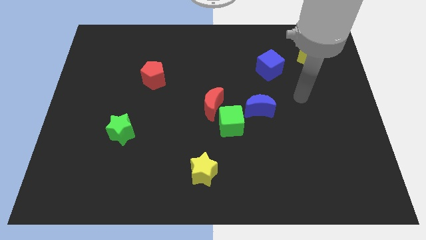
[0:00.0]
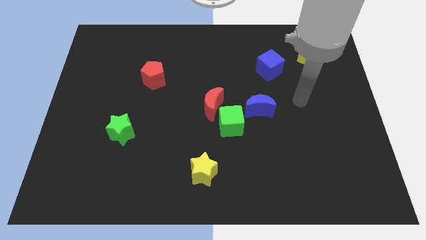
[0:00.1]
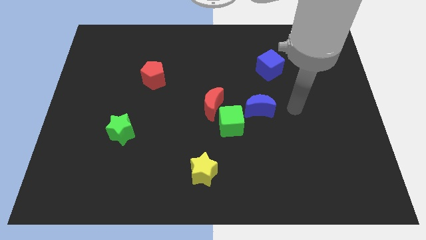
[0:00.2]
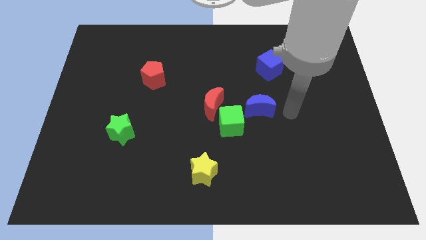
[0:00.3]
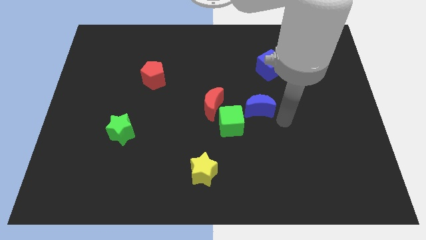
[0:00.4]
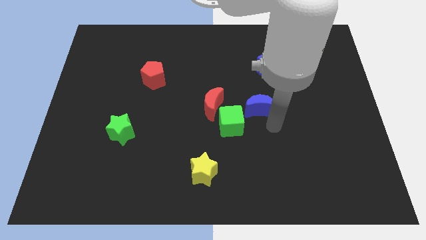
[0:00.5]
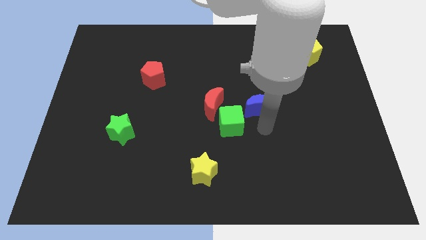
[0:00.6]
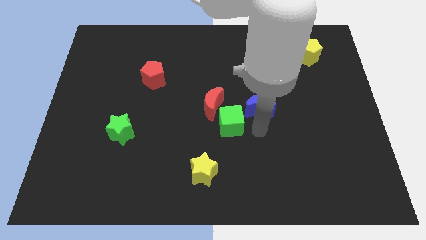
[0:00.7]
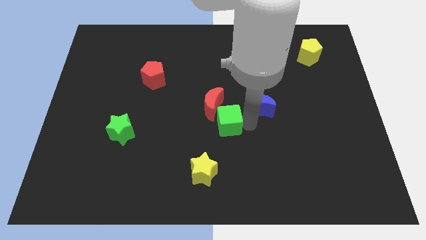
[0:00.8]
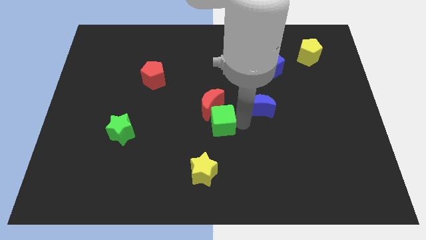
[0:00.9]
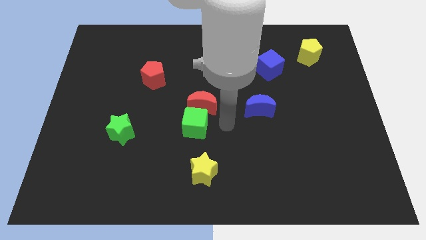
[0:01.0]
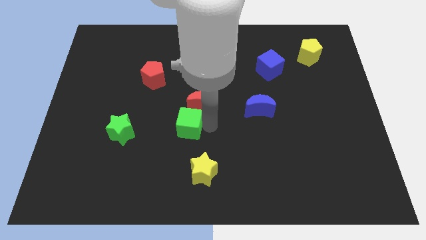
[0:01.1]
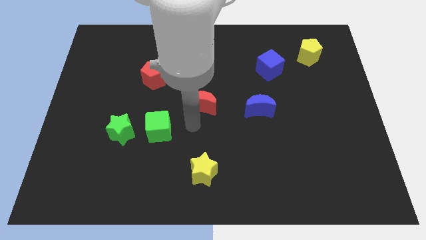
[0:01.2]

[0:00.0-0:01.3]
move the red moon away from the green cube

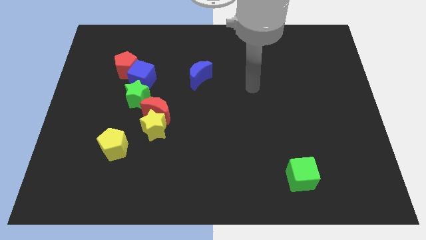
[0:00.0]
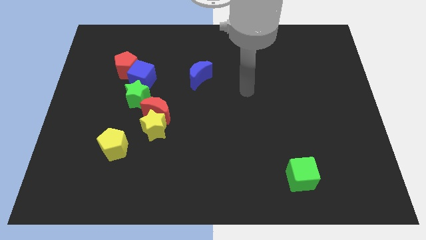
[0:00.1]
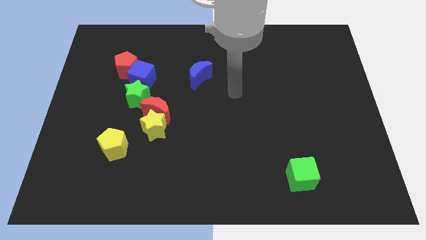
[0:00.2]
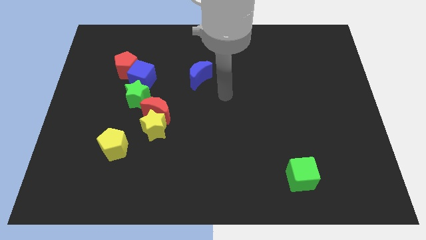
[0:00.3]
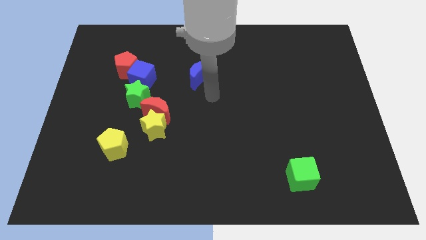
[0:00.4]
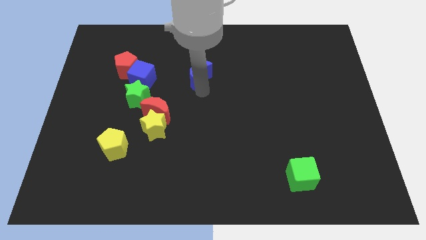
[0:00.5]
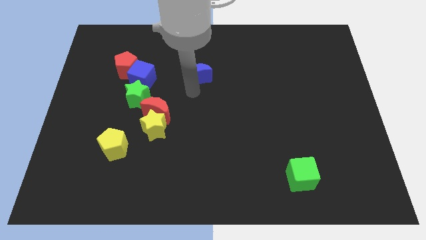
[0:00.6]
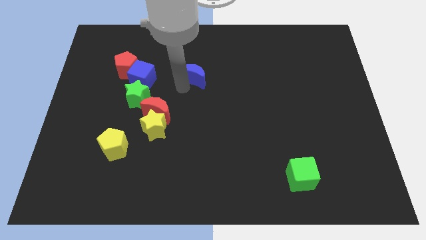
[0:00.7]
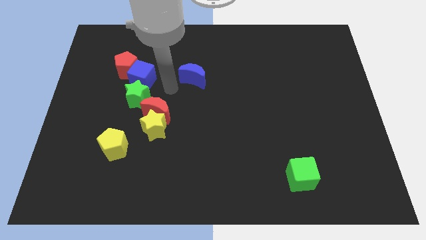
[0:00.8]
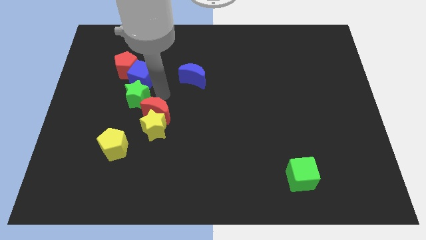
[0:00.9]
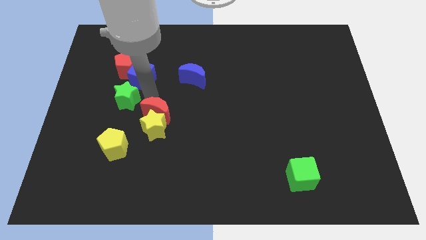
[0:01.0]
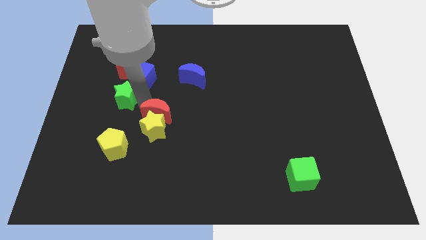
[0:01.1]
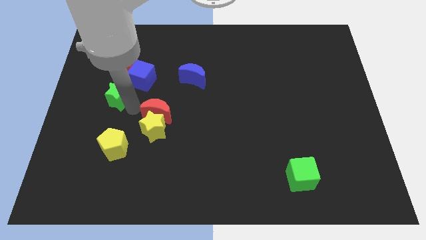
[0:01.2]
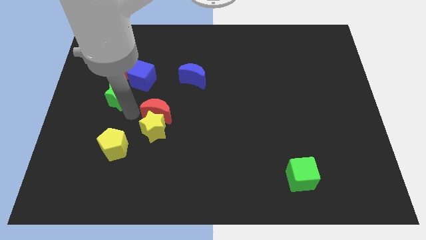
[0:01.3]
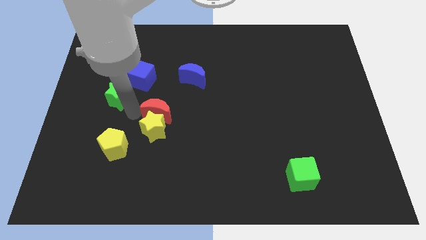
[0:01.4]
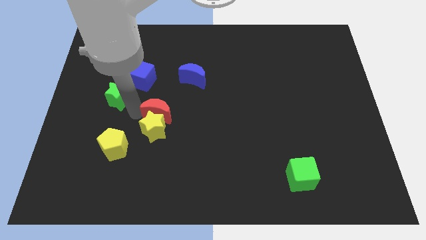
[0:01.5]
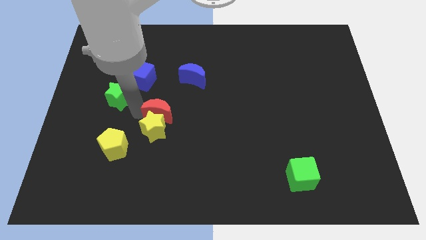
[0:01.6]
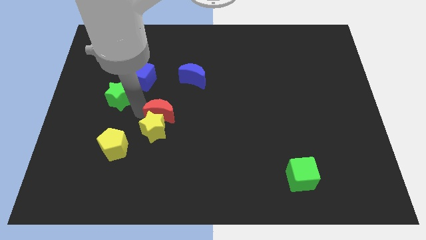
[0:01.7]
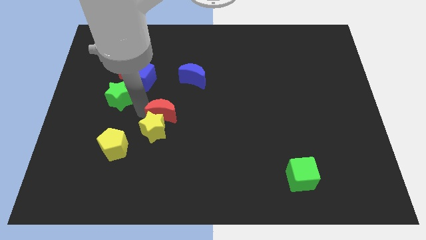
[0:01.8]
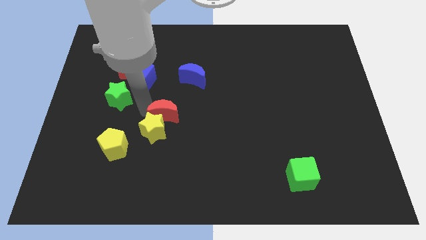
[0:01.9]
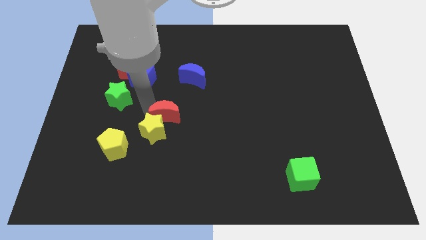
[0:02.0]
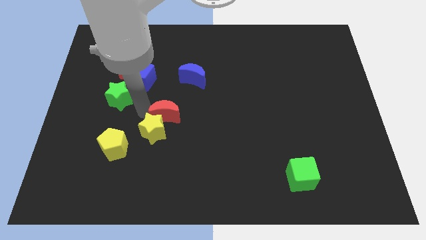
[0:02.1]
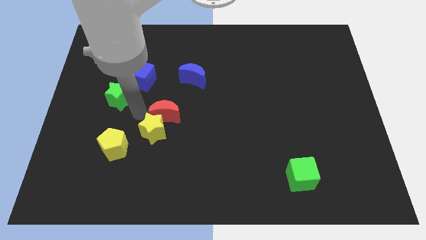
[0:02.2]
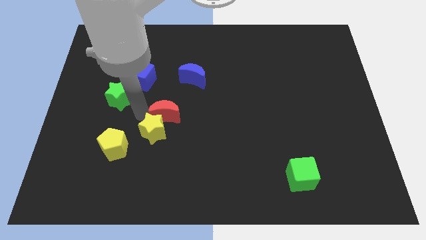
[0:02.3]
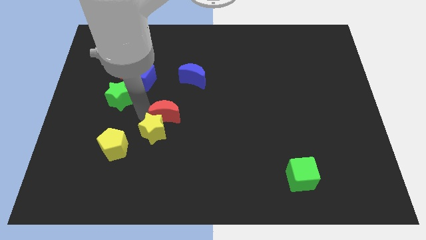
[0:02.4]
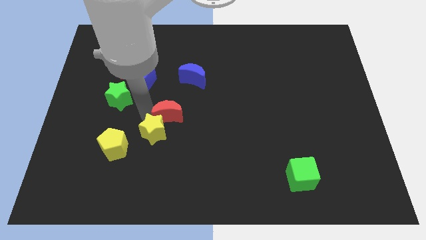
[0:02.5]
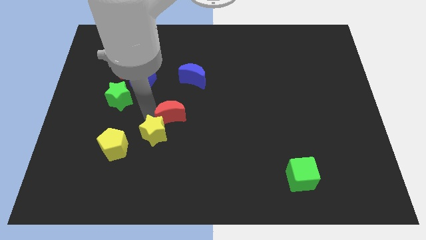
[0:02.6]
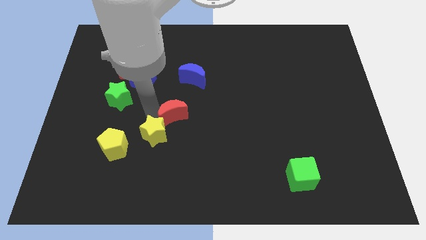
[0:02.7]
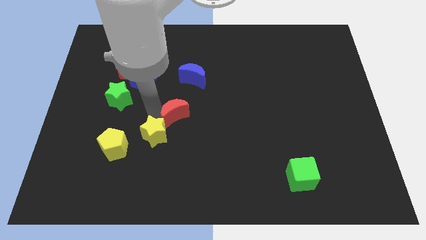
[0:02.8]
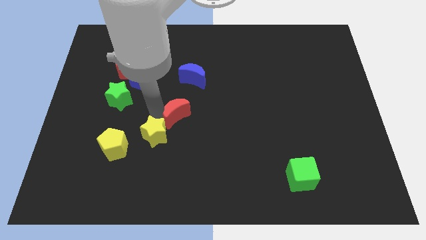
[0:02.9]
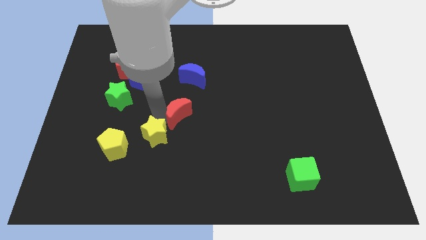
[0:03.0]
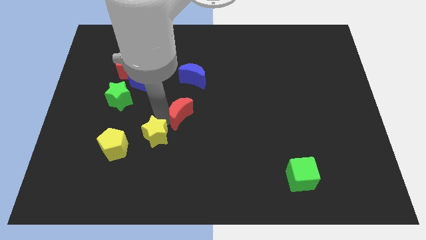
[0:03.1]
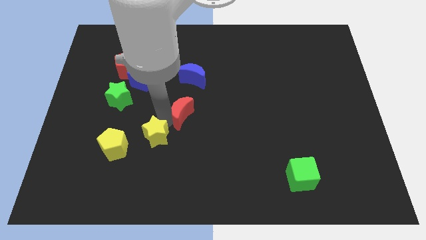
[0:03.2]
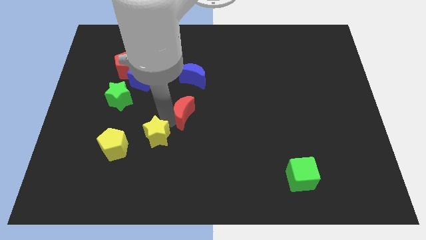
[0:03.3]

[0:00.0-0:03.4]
move the red moon away from the yellow star and green star

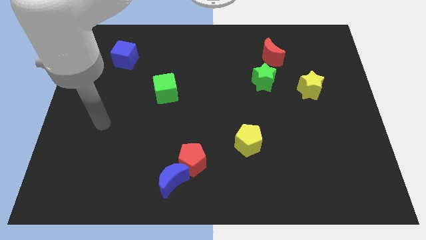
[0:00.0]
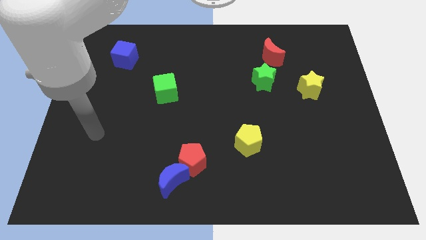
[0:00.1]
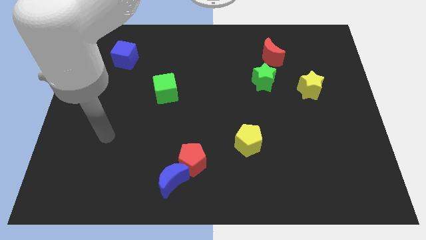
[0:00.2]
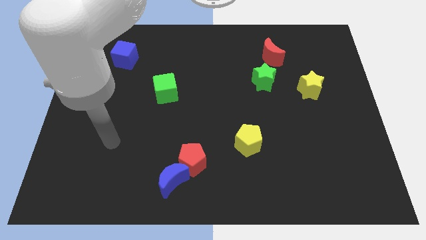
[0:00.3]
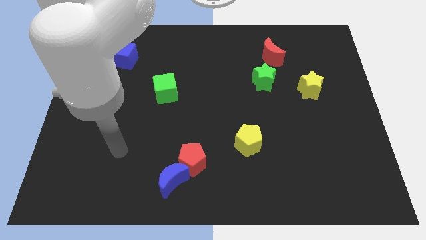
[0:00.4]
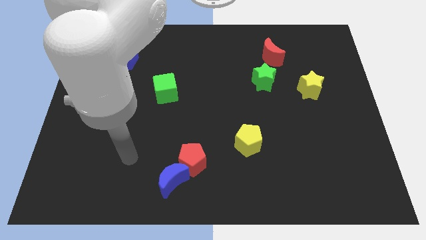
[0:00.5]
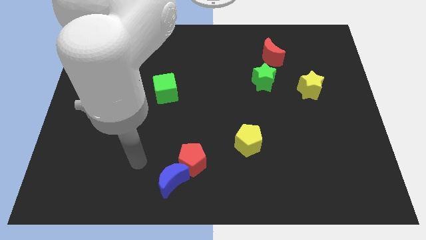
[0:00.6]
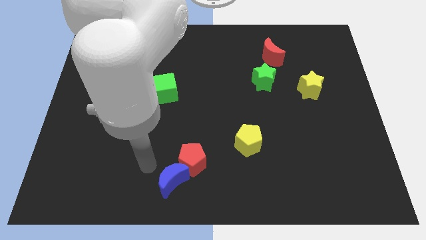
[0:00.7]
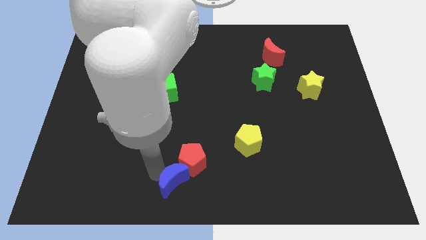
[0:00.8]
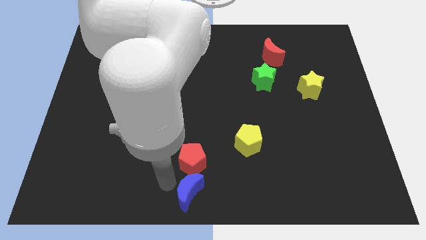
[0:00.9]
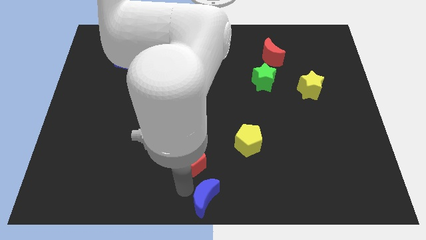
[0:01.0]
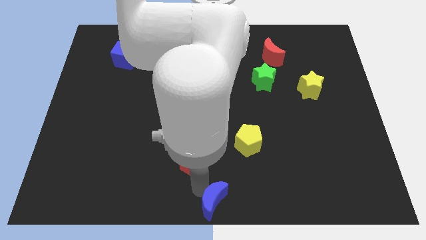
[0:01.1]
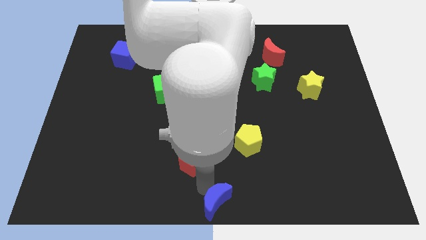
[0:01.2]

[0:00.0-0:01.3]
pull the red pentagon apart from the blue moon

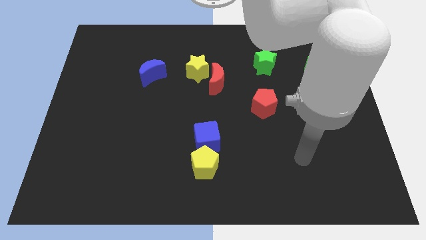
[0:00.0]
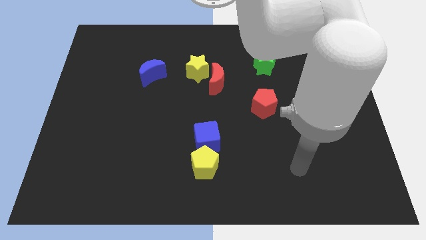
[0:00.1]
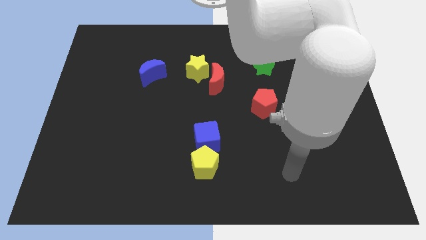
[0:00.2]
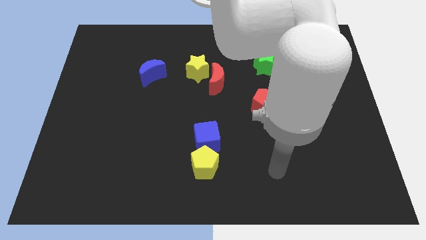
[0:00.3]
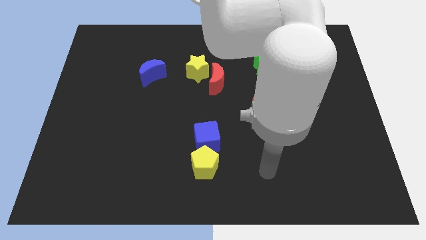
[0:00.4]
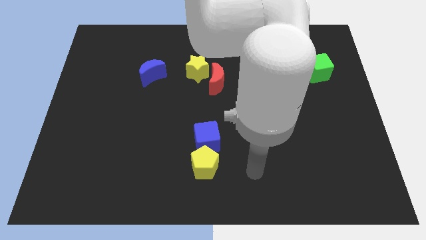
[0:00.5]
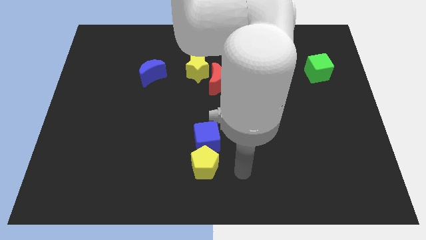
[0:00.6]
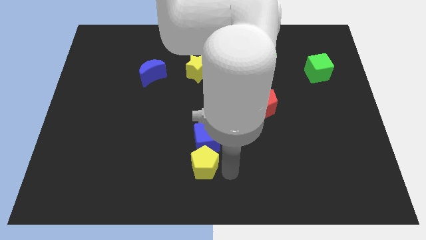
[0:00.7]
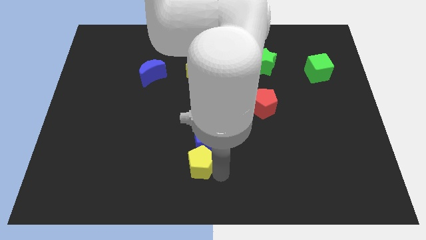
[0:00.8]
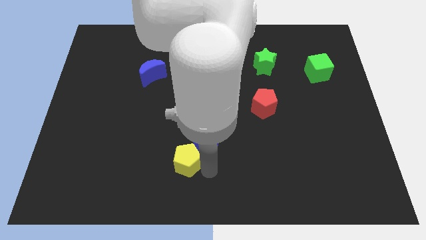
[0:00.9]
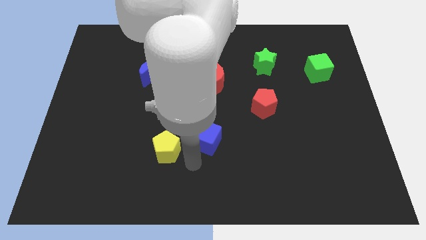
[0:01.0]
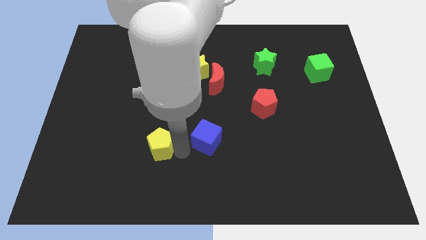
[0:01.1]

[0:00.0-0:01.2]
separate the blue cube from the yellow pentagon

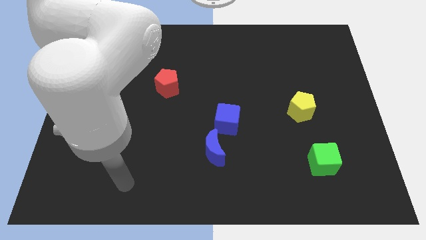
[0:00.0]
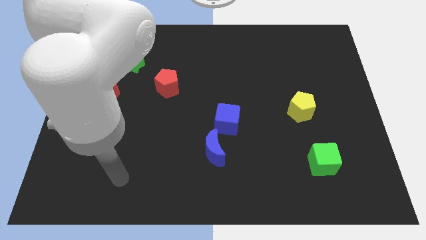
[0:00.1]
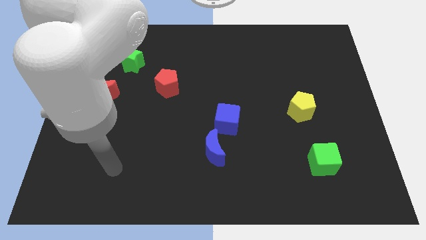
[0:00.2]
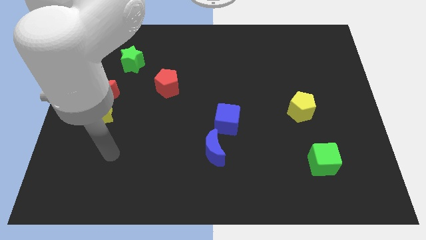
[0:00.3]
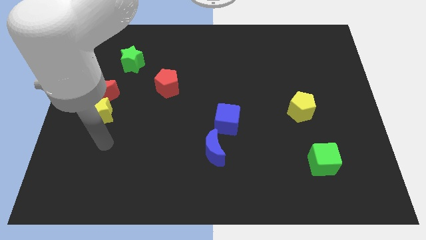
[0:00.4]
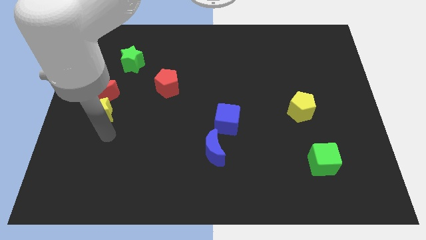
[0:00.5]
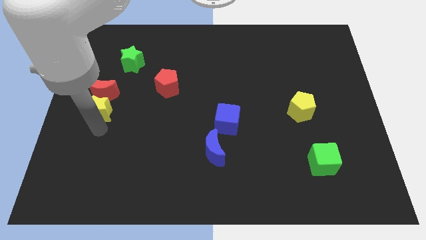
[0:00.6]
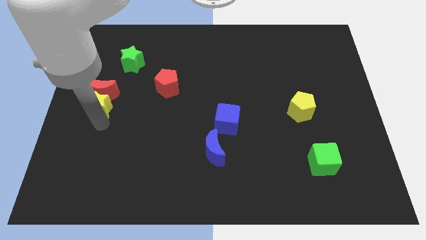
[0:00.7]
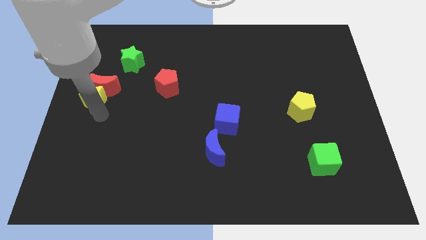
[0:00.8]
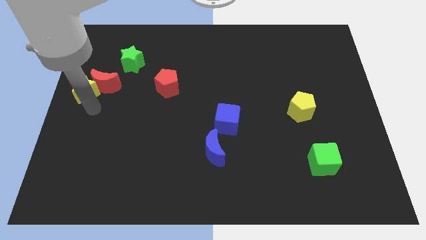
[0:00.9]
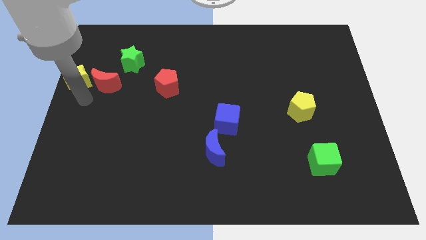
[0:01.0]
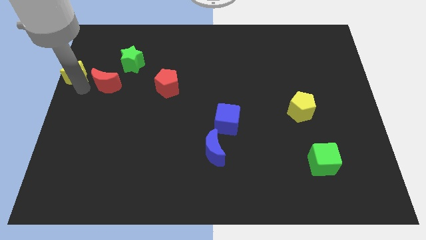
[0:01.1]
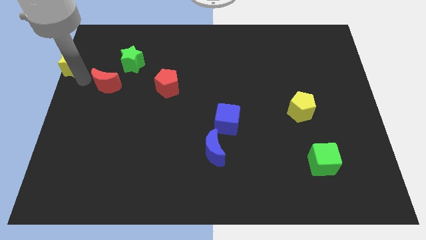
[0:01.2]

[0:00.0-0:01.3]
separate the red moon from the yellow star

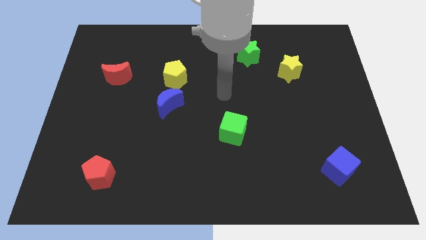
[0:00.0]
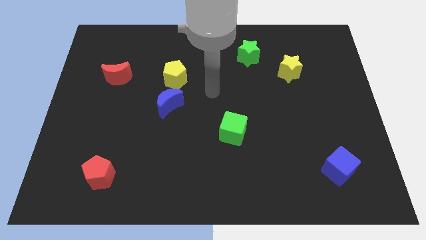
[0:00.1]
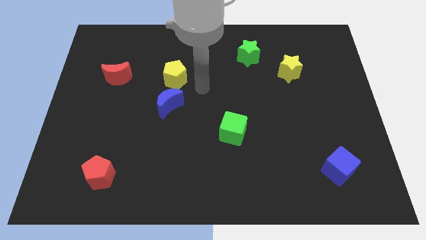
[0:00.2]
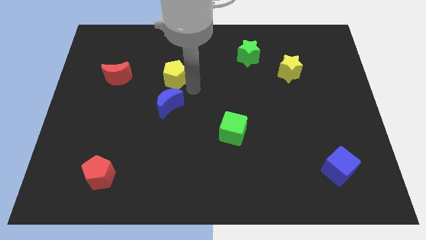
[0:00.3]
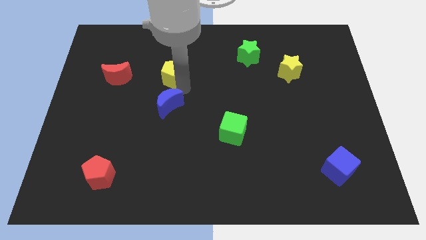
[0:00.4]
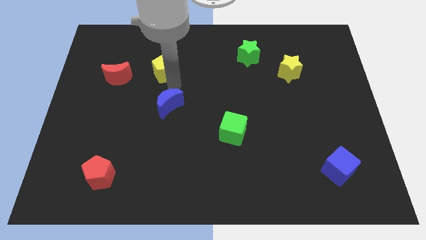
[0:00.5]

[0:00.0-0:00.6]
separate the blue moon from the yellow pentagon

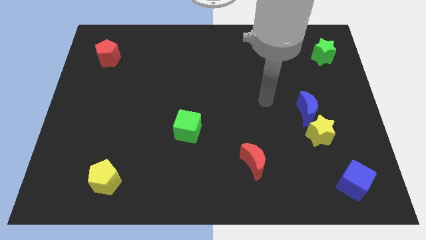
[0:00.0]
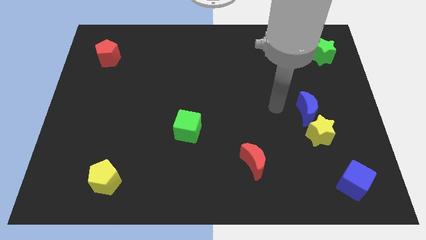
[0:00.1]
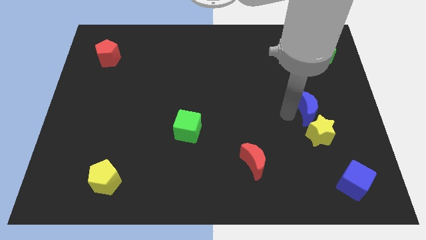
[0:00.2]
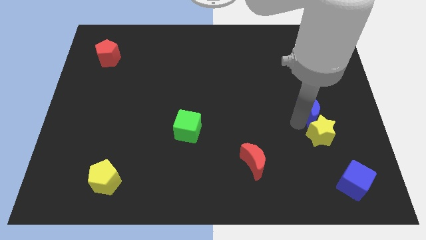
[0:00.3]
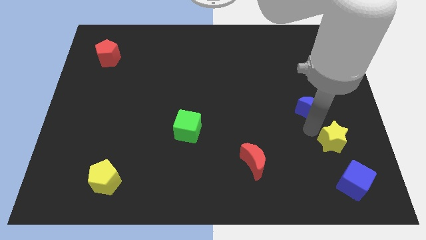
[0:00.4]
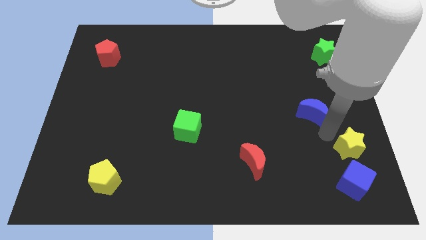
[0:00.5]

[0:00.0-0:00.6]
move the blue moon away from the yellow star
